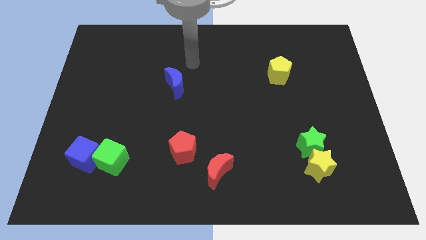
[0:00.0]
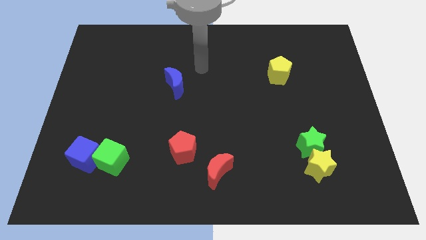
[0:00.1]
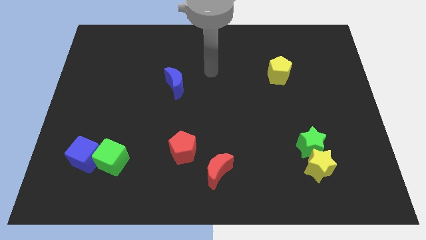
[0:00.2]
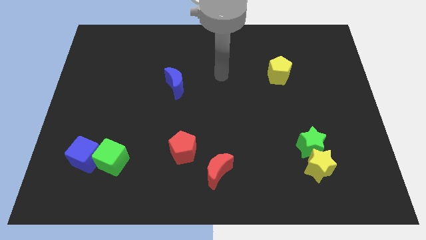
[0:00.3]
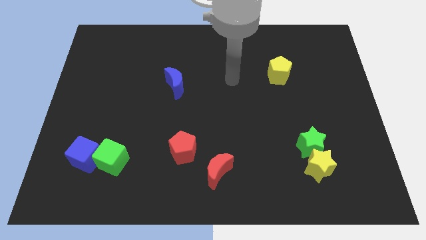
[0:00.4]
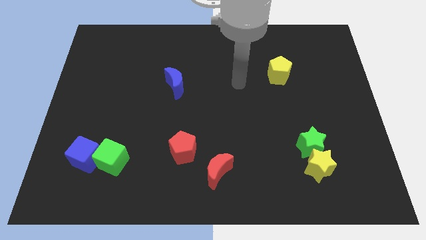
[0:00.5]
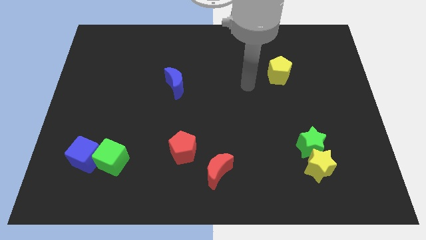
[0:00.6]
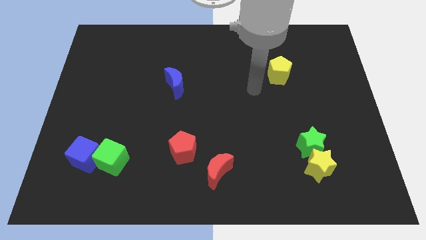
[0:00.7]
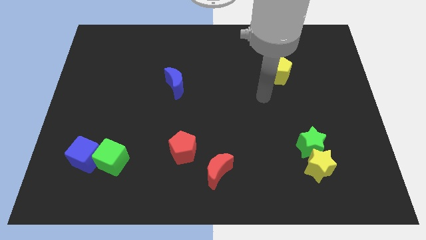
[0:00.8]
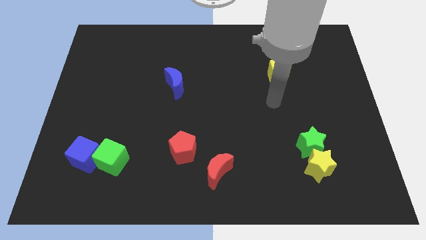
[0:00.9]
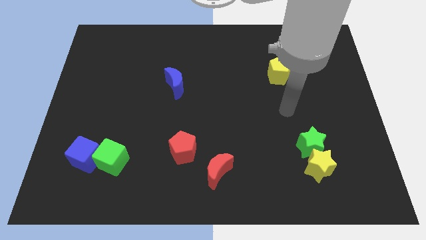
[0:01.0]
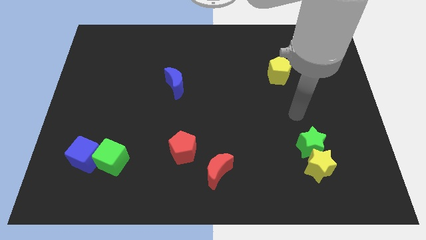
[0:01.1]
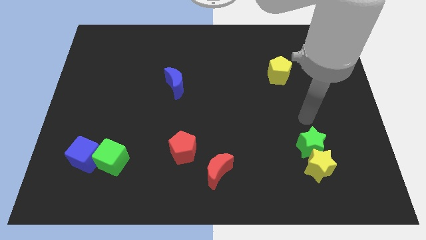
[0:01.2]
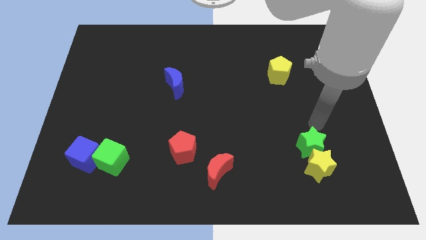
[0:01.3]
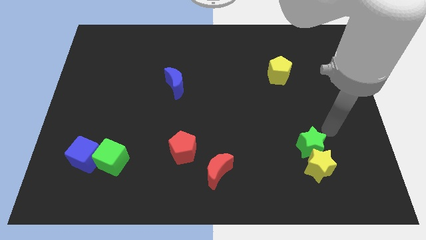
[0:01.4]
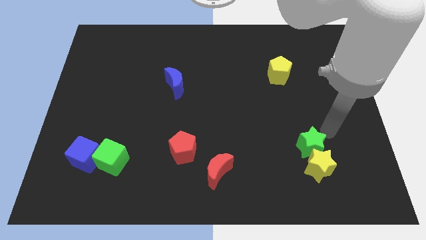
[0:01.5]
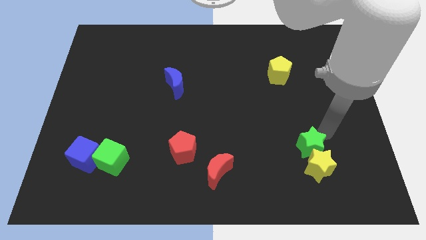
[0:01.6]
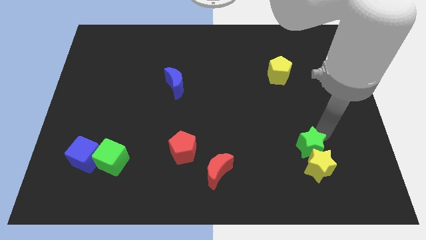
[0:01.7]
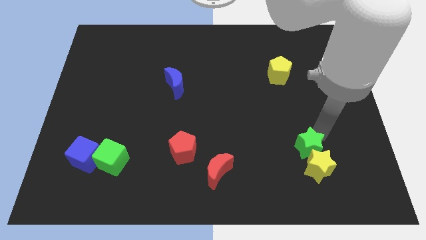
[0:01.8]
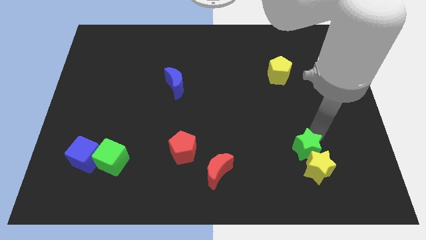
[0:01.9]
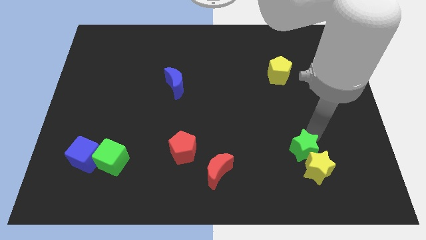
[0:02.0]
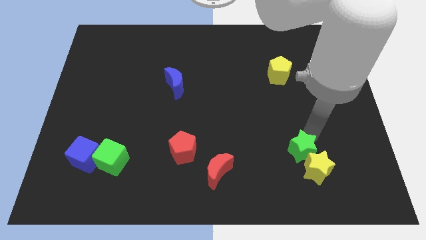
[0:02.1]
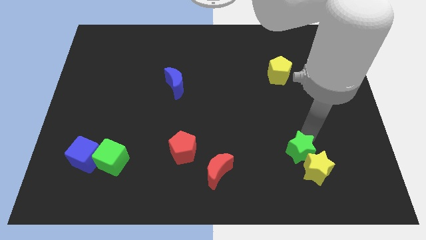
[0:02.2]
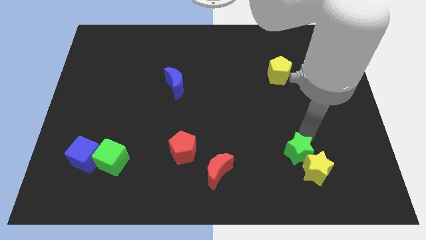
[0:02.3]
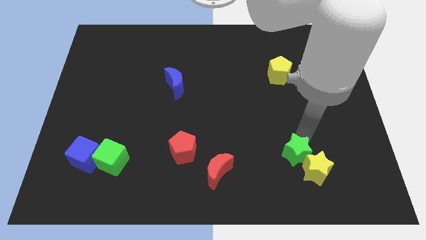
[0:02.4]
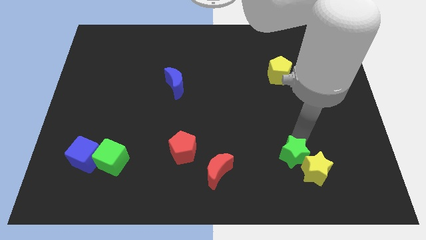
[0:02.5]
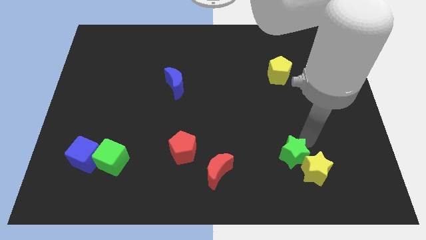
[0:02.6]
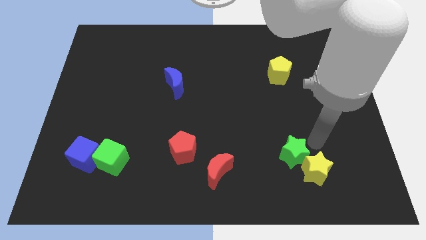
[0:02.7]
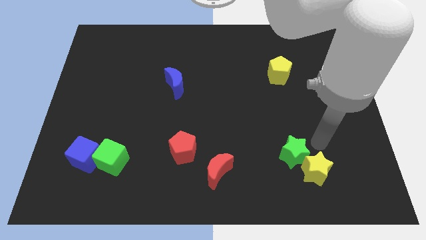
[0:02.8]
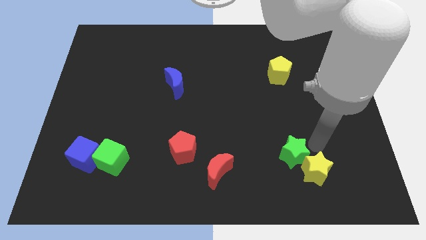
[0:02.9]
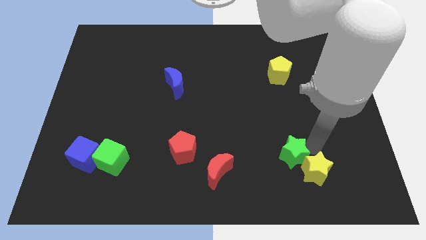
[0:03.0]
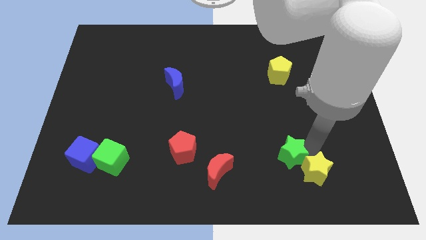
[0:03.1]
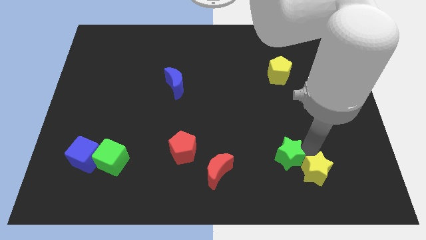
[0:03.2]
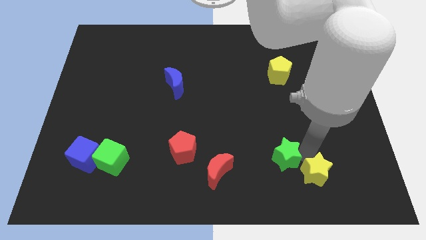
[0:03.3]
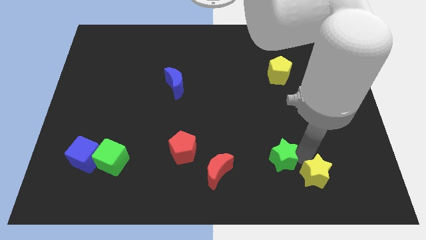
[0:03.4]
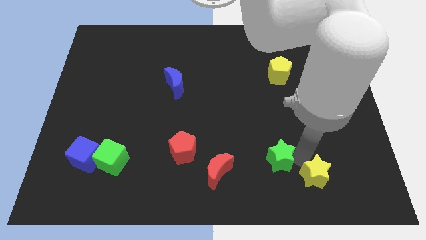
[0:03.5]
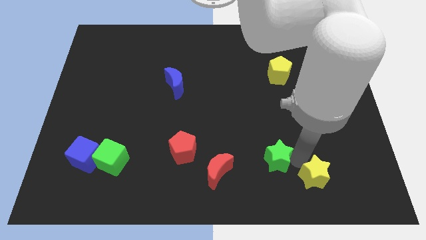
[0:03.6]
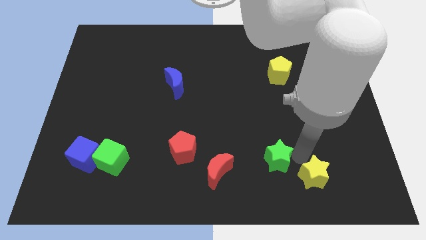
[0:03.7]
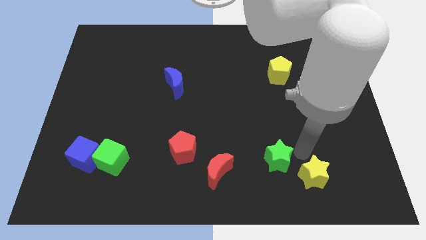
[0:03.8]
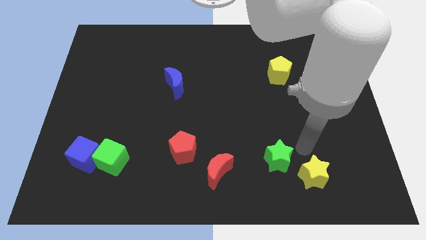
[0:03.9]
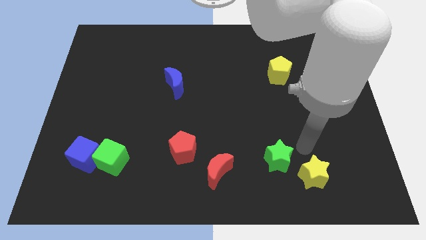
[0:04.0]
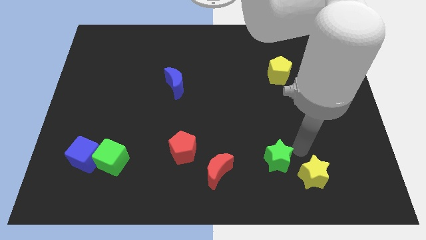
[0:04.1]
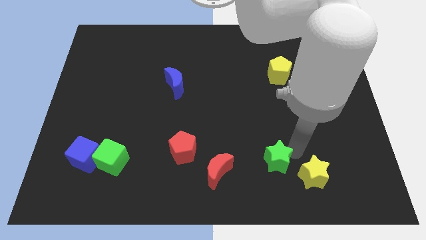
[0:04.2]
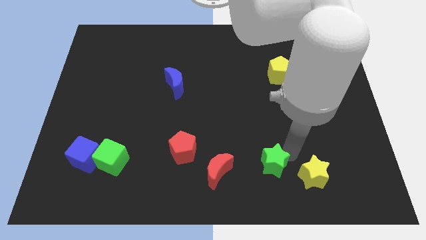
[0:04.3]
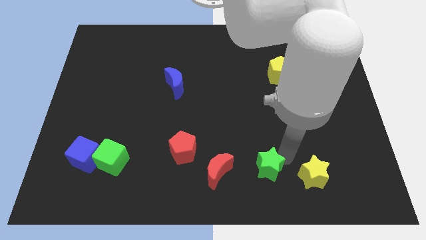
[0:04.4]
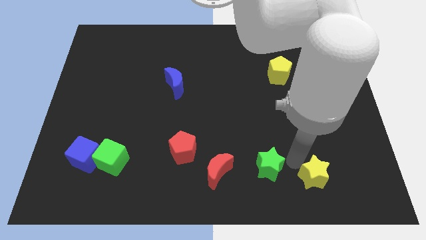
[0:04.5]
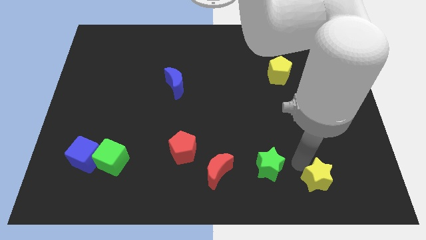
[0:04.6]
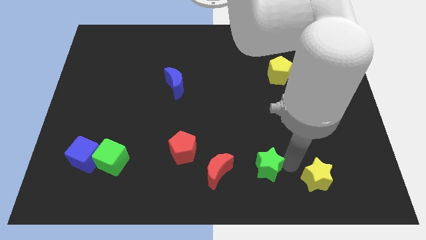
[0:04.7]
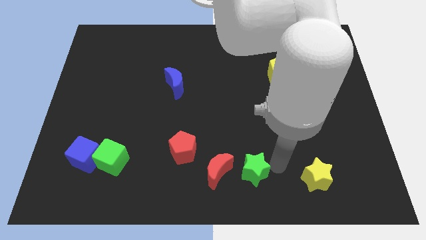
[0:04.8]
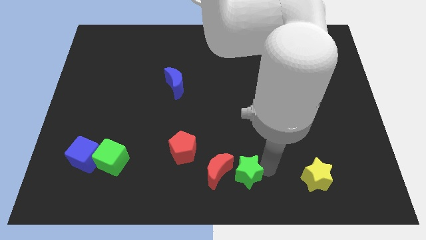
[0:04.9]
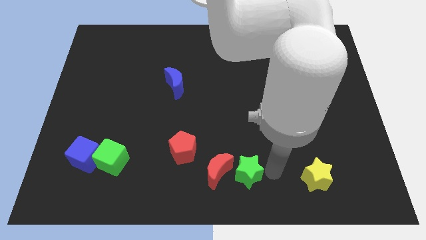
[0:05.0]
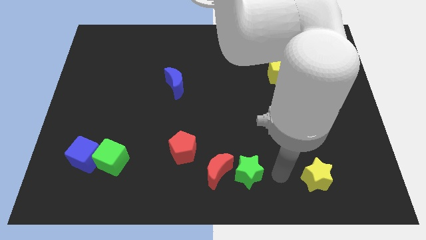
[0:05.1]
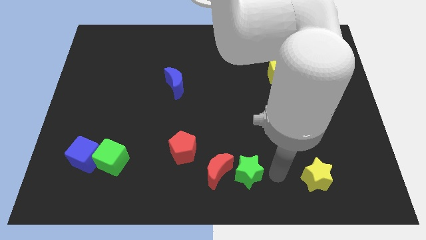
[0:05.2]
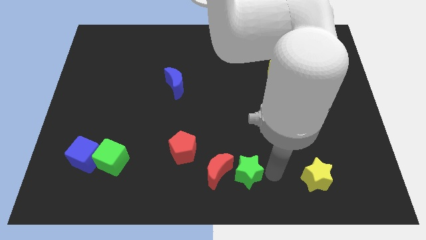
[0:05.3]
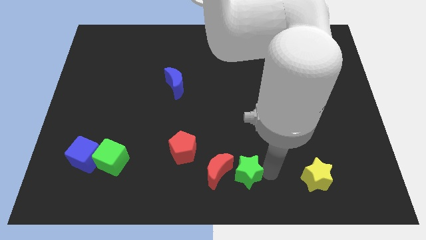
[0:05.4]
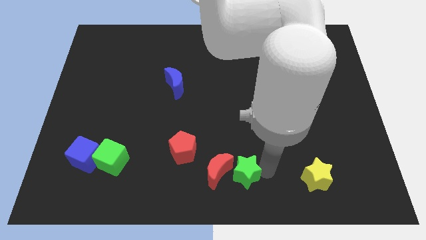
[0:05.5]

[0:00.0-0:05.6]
move the green star towards the red moon

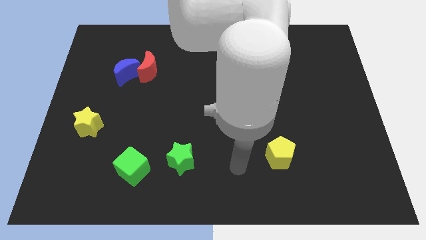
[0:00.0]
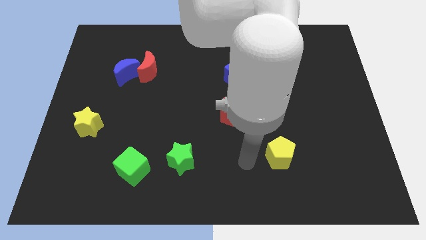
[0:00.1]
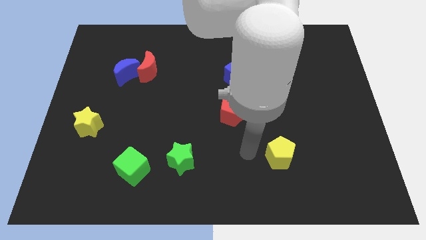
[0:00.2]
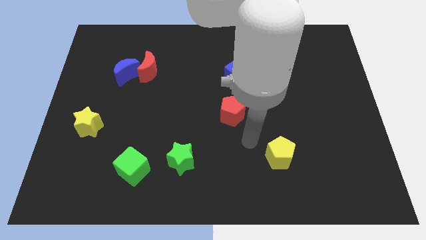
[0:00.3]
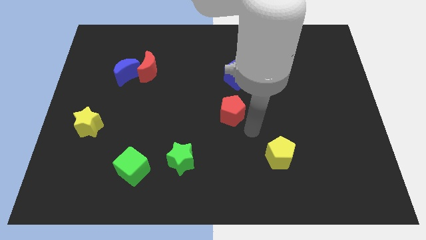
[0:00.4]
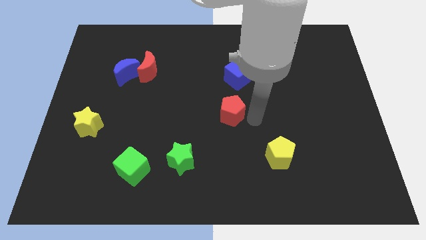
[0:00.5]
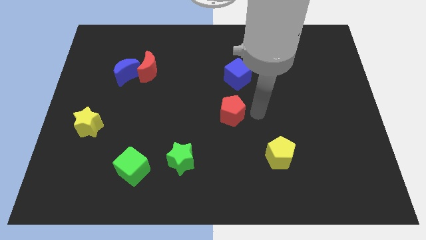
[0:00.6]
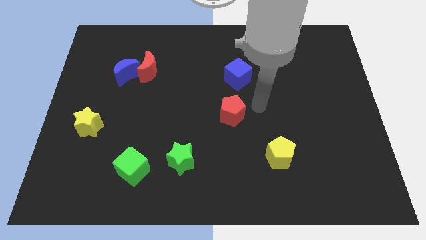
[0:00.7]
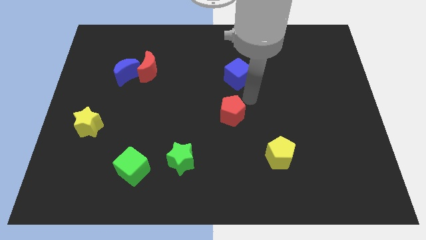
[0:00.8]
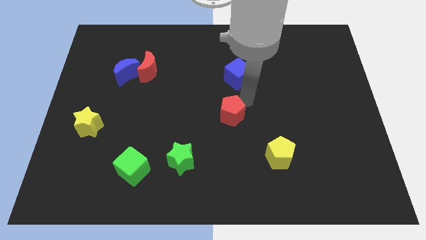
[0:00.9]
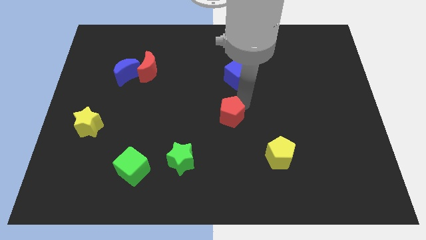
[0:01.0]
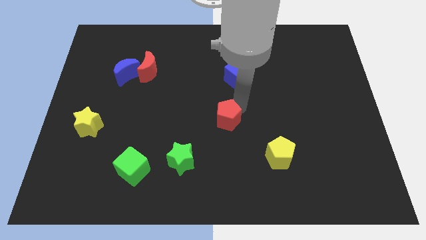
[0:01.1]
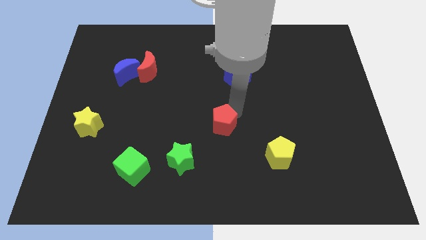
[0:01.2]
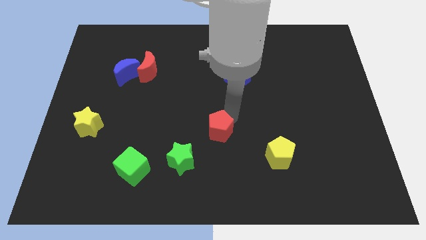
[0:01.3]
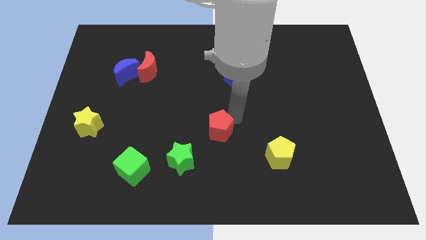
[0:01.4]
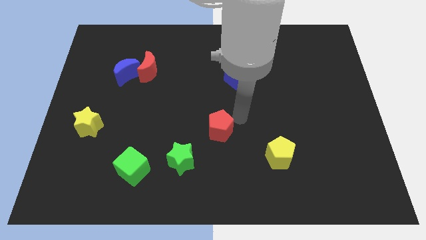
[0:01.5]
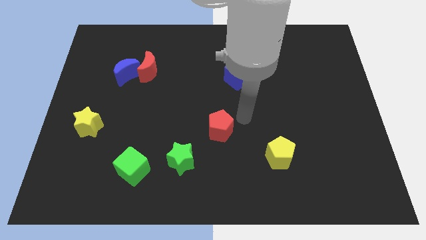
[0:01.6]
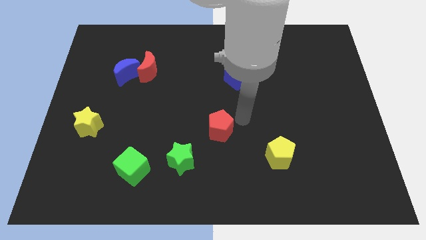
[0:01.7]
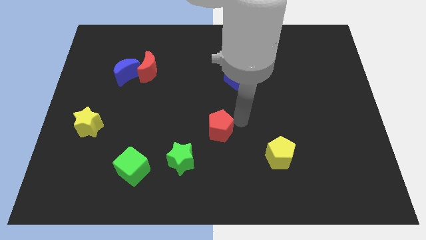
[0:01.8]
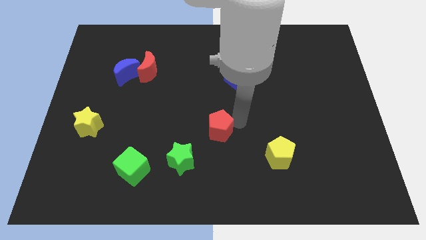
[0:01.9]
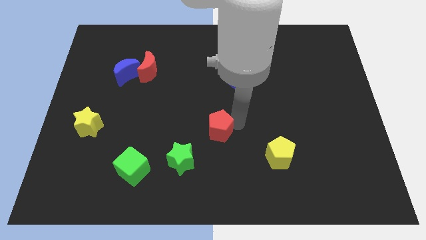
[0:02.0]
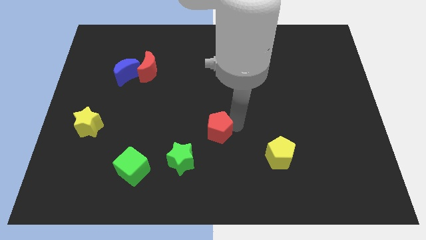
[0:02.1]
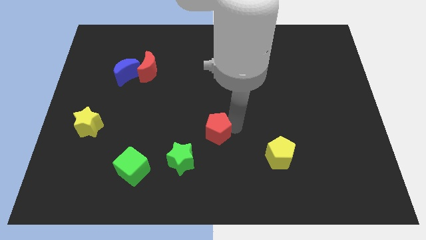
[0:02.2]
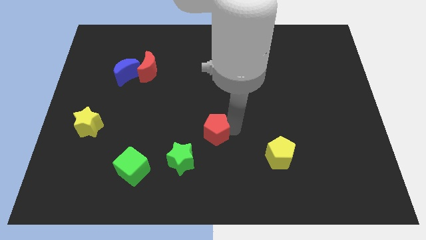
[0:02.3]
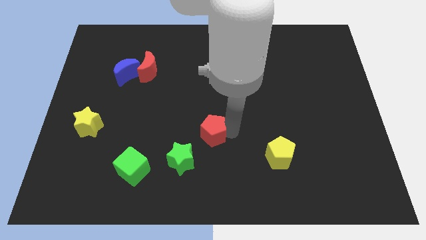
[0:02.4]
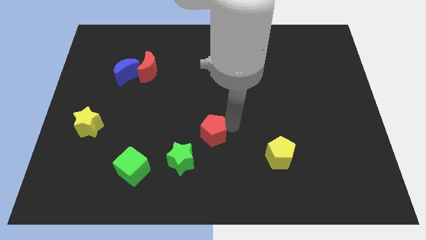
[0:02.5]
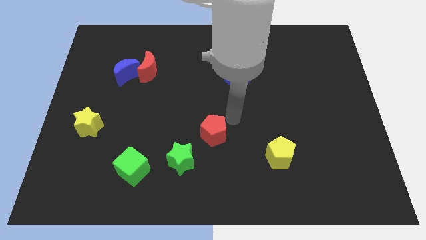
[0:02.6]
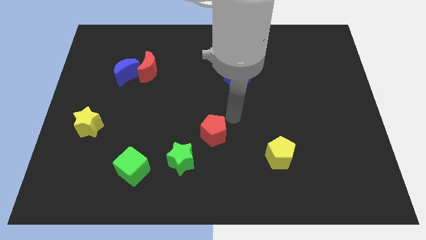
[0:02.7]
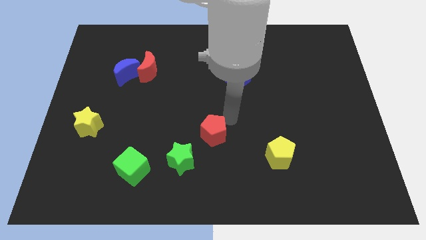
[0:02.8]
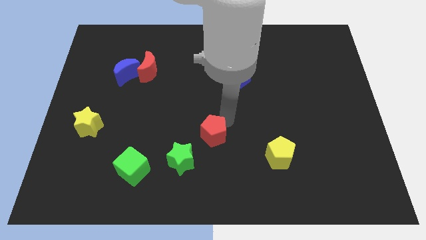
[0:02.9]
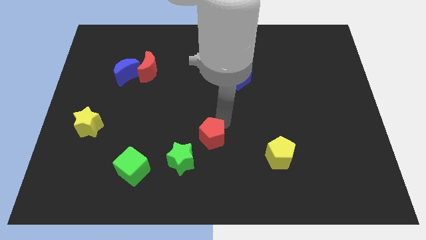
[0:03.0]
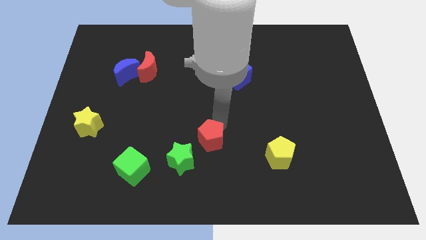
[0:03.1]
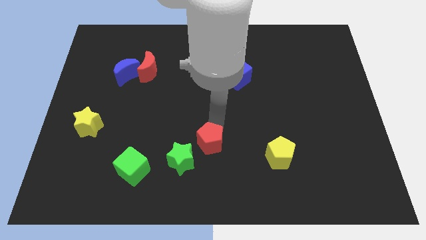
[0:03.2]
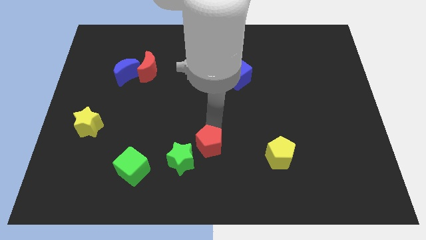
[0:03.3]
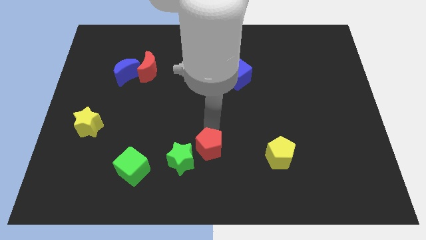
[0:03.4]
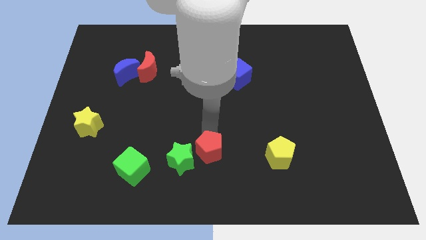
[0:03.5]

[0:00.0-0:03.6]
move the red pentagon next to the green star
